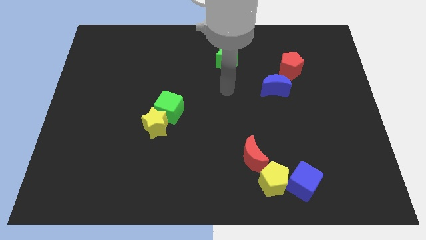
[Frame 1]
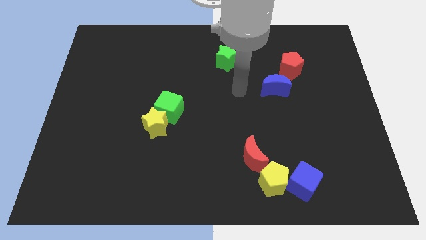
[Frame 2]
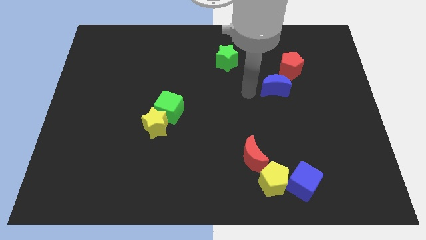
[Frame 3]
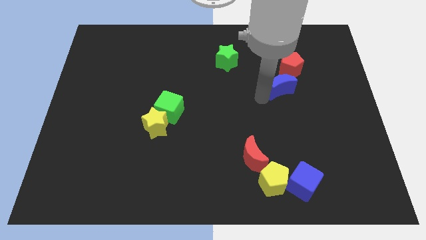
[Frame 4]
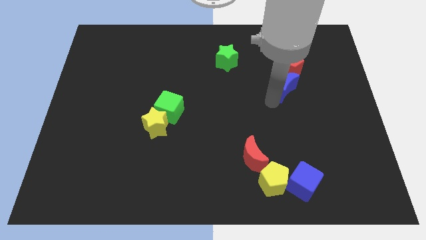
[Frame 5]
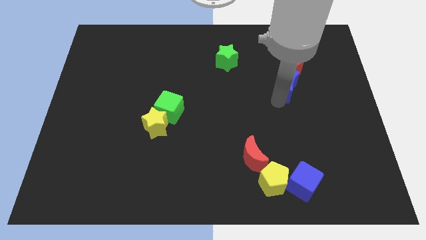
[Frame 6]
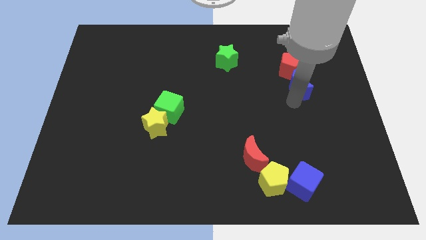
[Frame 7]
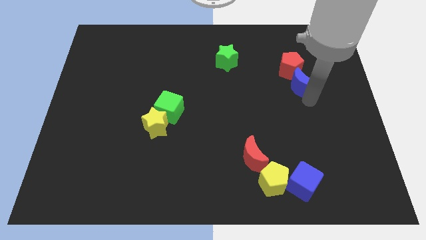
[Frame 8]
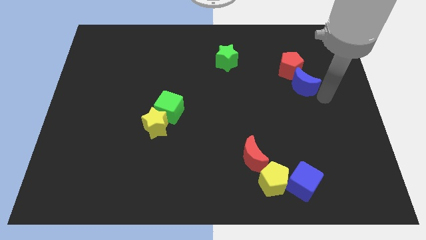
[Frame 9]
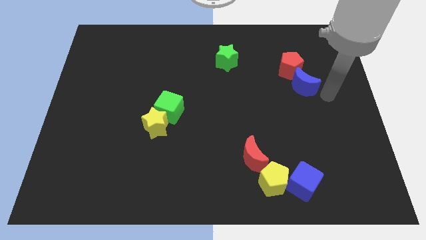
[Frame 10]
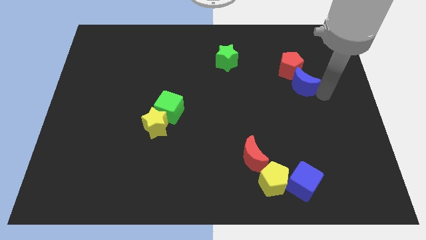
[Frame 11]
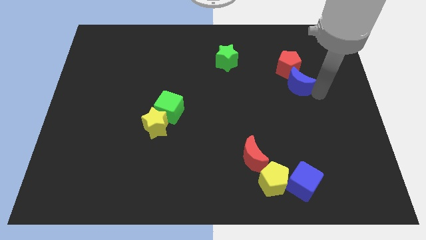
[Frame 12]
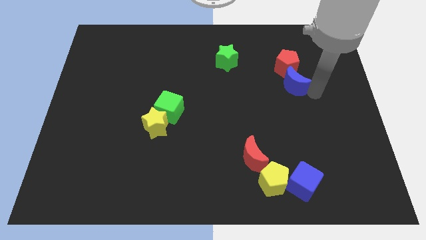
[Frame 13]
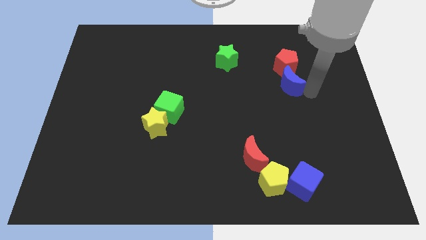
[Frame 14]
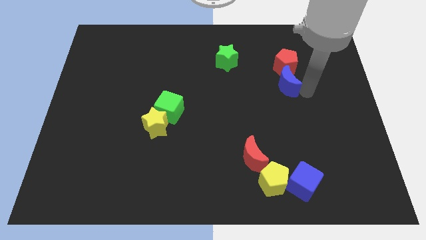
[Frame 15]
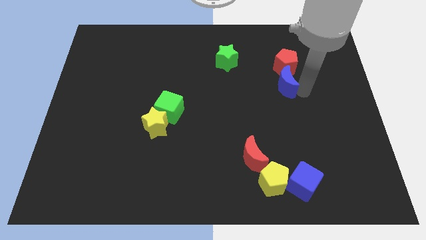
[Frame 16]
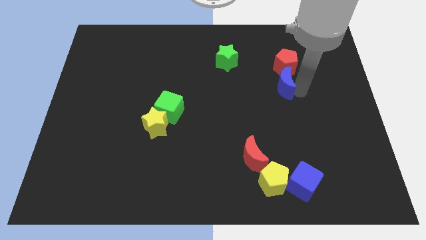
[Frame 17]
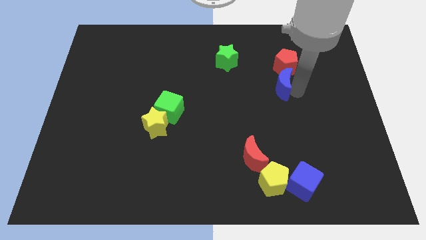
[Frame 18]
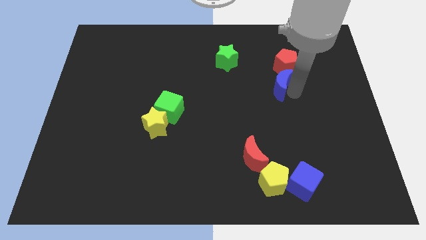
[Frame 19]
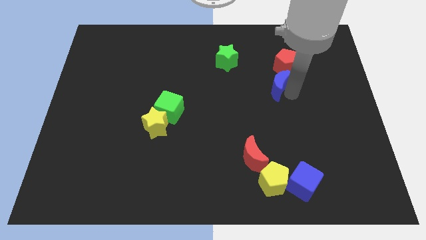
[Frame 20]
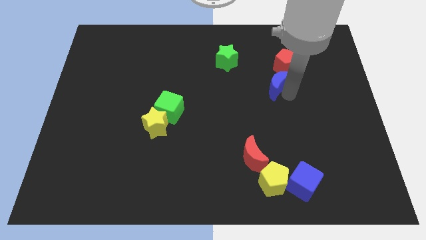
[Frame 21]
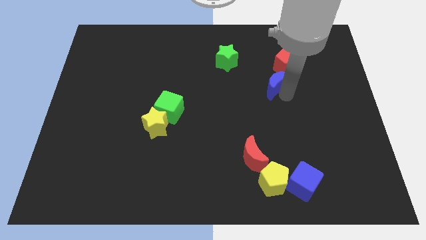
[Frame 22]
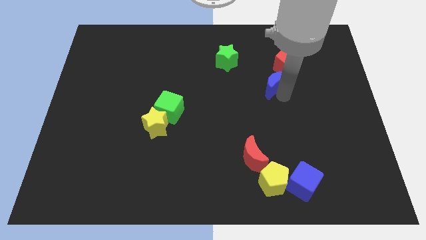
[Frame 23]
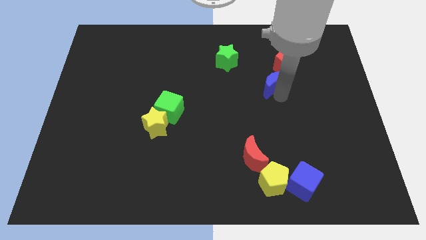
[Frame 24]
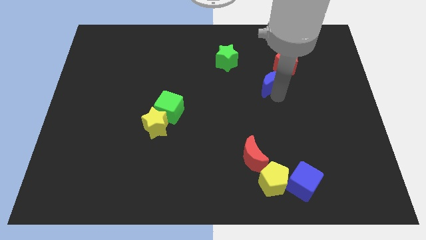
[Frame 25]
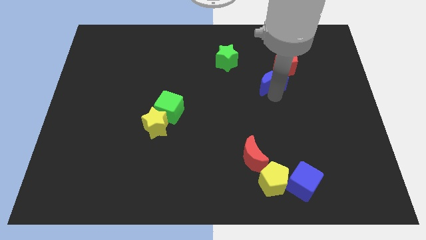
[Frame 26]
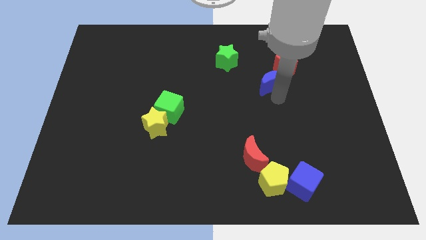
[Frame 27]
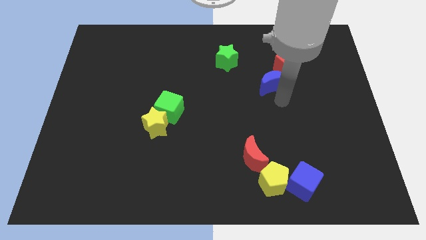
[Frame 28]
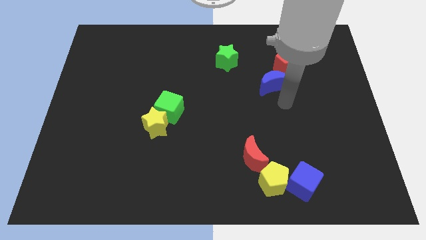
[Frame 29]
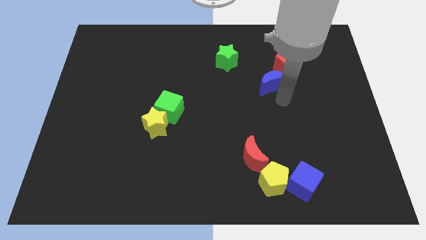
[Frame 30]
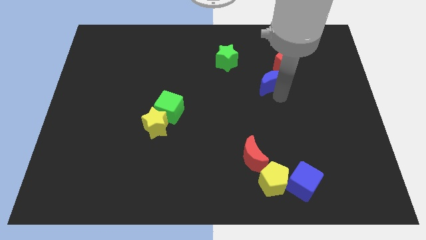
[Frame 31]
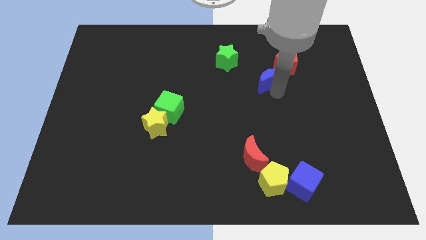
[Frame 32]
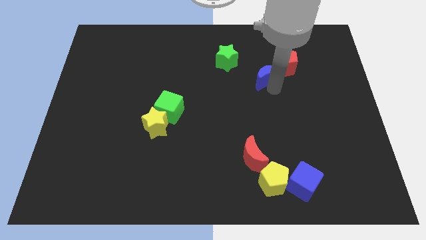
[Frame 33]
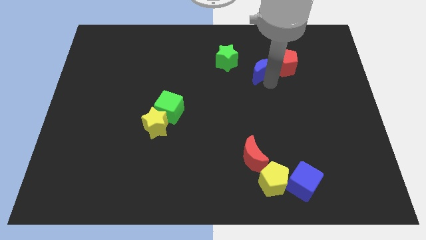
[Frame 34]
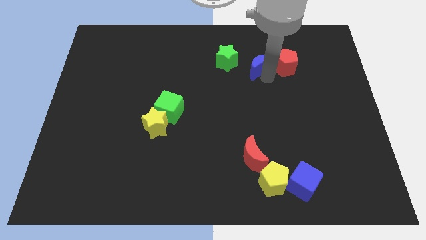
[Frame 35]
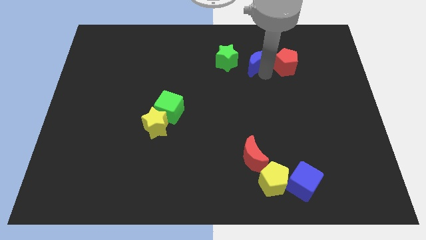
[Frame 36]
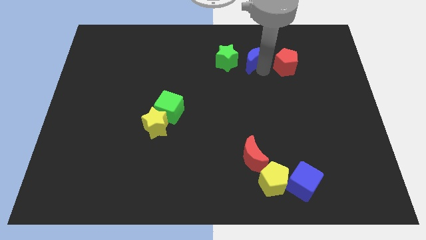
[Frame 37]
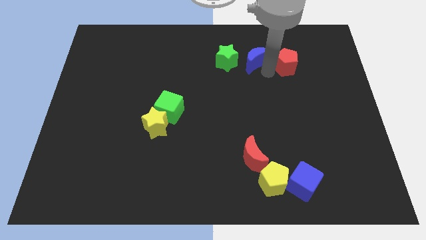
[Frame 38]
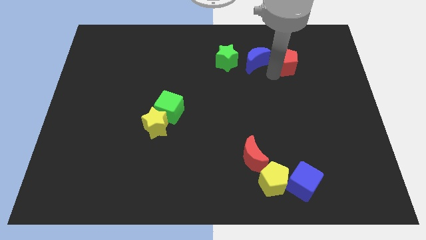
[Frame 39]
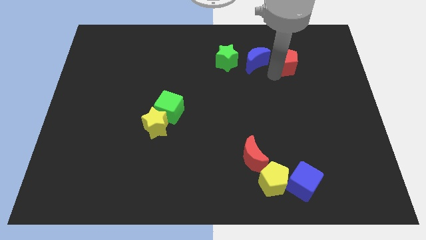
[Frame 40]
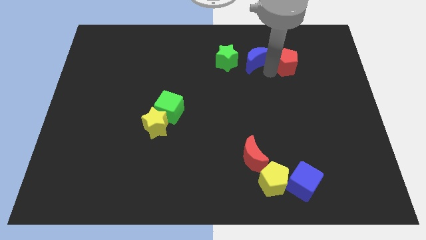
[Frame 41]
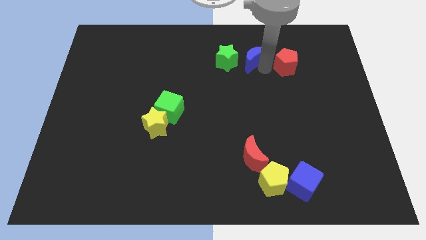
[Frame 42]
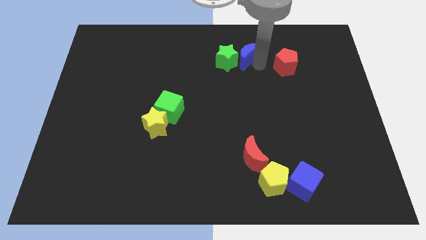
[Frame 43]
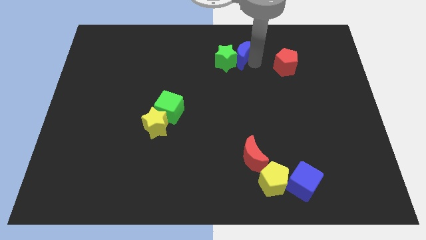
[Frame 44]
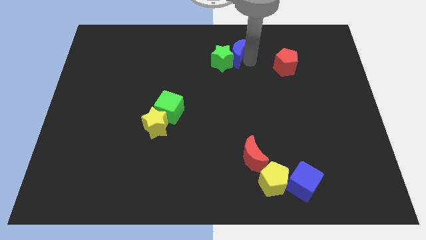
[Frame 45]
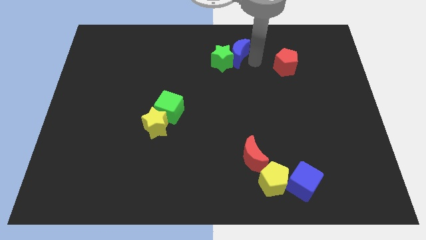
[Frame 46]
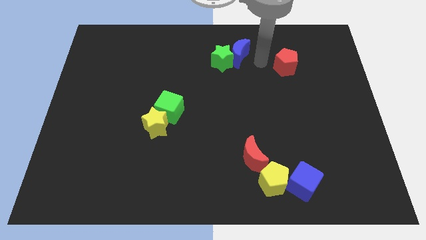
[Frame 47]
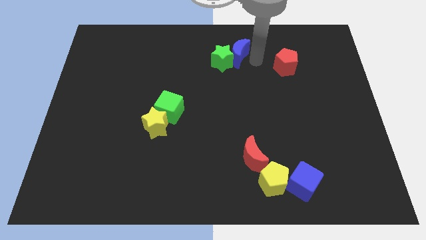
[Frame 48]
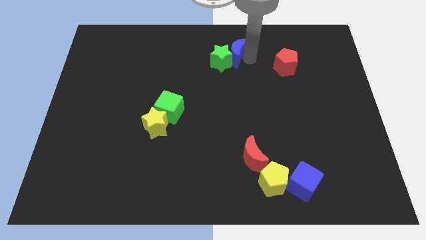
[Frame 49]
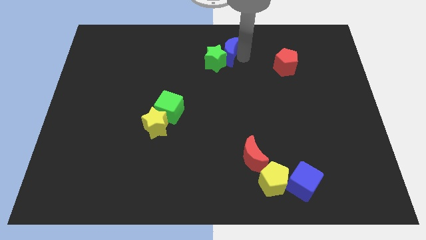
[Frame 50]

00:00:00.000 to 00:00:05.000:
slide the blue moon to the towards your base

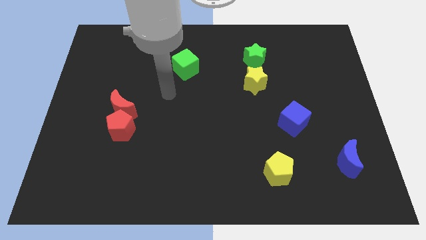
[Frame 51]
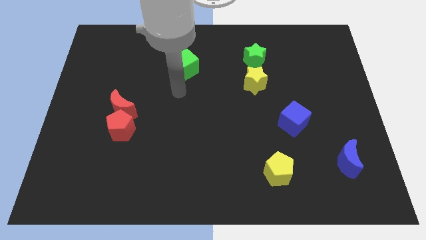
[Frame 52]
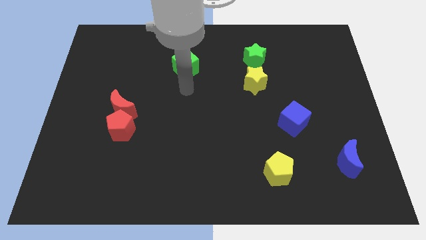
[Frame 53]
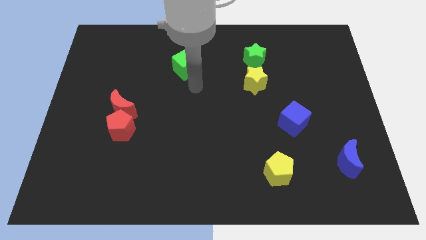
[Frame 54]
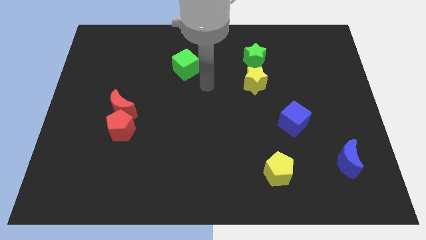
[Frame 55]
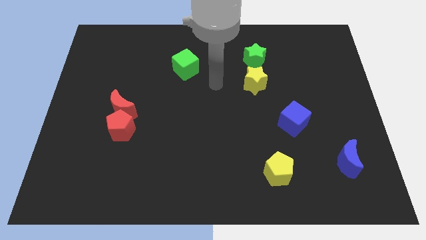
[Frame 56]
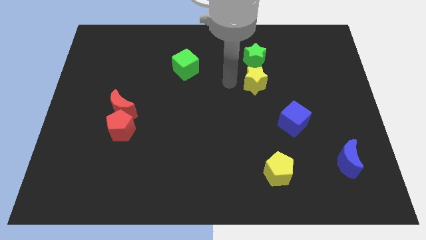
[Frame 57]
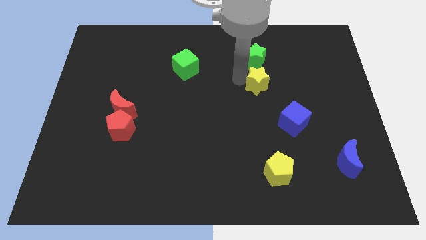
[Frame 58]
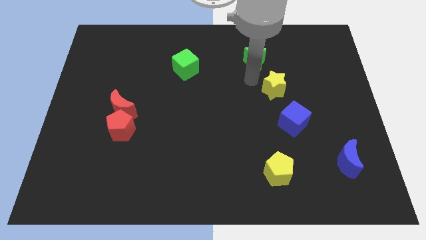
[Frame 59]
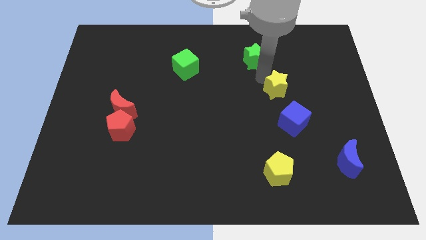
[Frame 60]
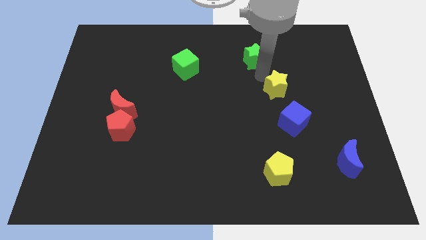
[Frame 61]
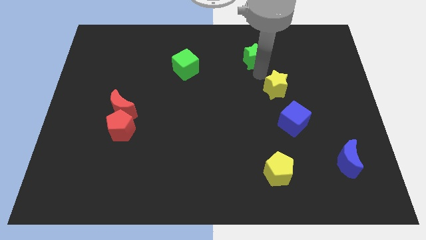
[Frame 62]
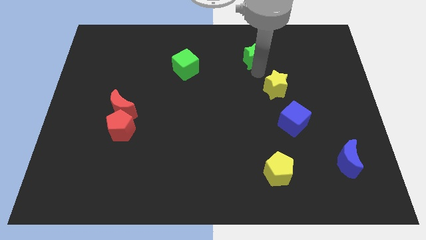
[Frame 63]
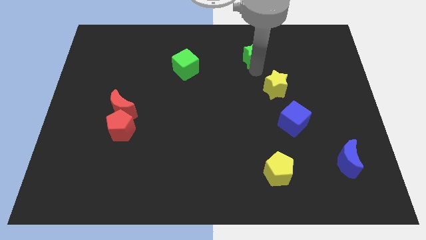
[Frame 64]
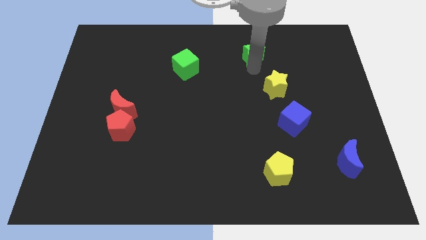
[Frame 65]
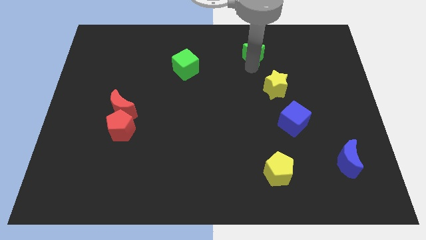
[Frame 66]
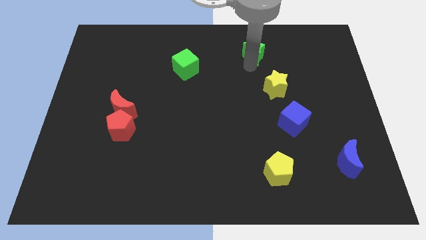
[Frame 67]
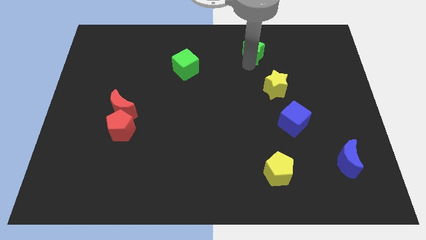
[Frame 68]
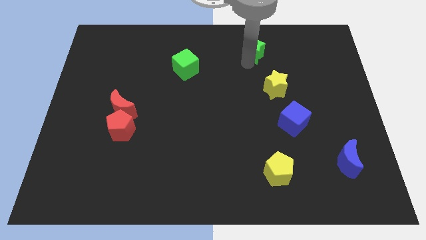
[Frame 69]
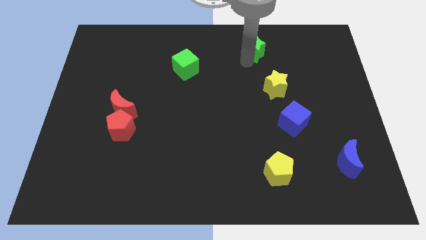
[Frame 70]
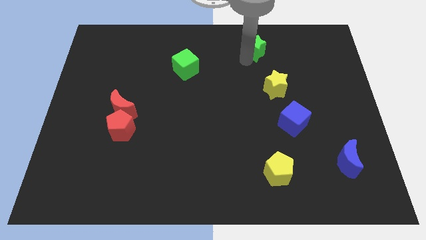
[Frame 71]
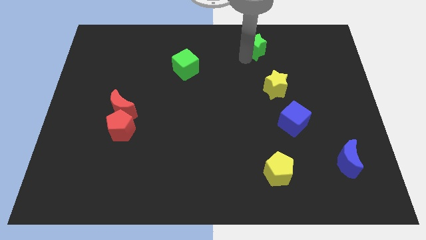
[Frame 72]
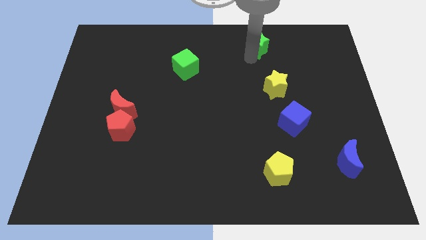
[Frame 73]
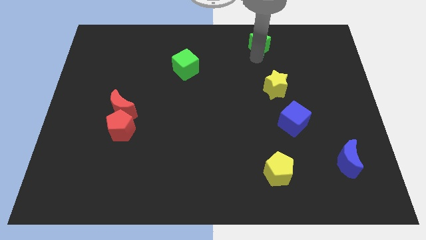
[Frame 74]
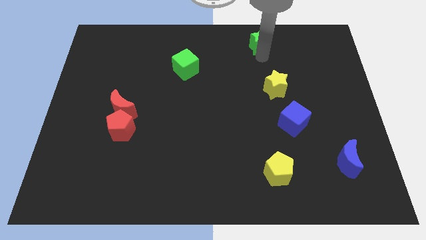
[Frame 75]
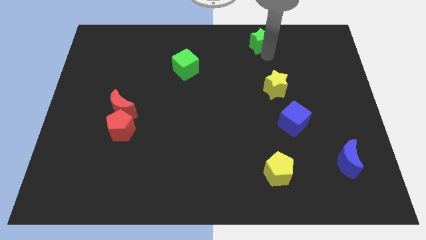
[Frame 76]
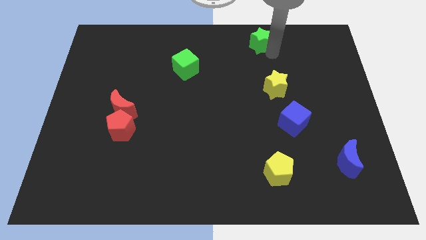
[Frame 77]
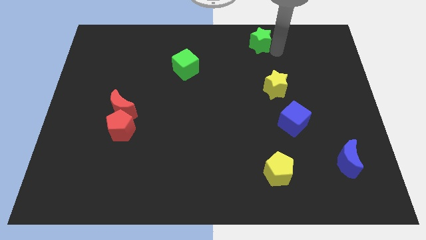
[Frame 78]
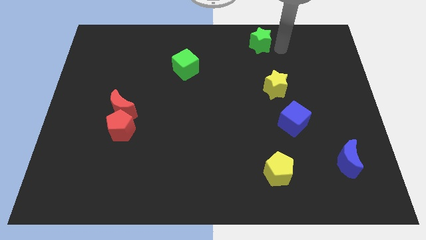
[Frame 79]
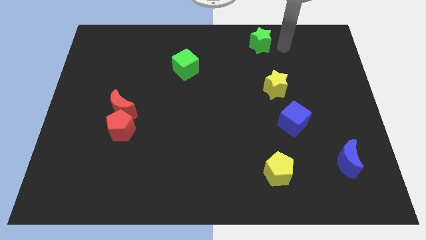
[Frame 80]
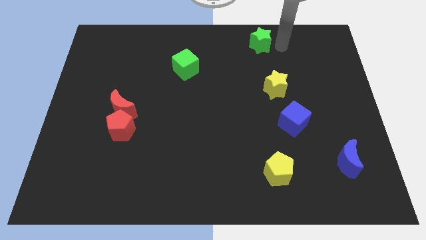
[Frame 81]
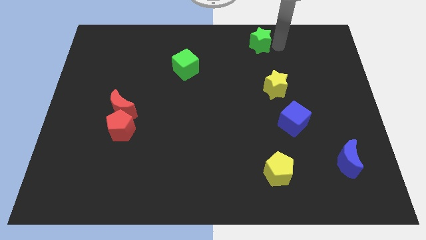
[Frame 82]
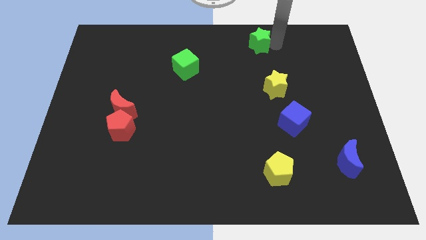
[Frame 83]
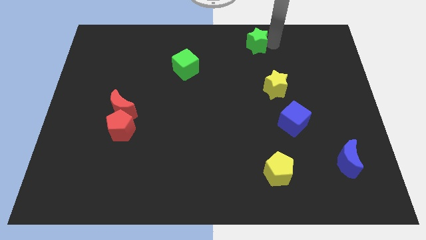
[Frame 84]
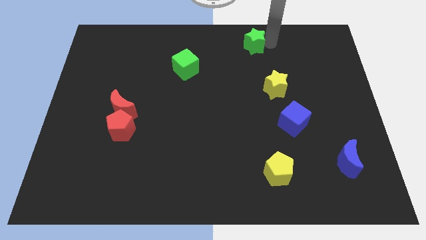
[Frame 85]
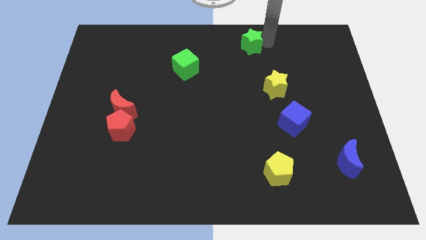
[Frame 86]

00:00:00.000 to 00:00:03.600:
slide the green star to the top
